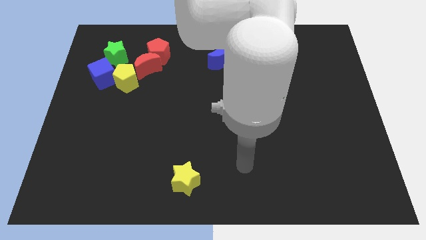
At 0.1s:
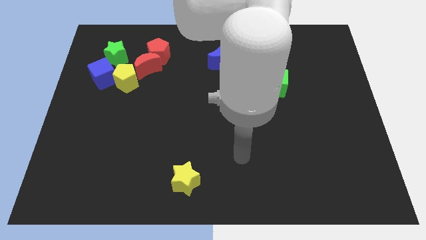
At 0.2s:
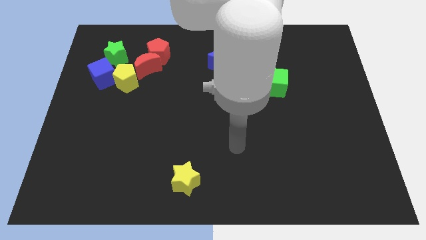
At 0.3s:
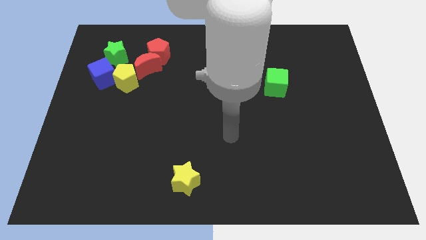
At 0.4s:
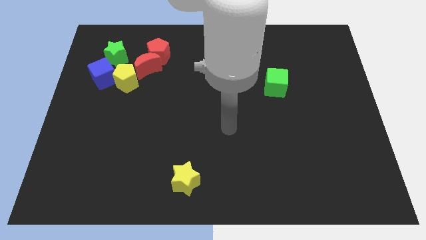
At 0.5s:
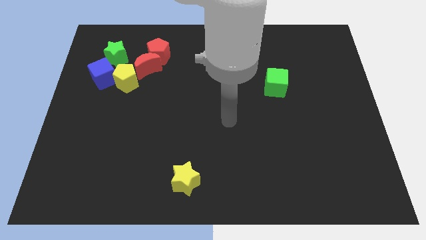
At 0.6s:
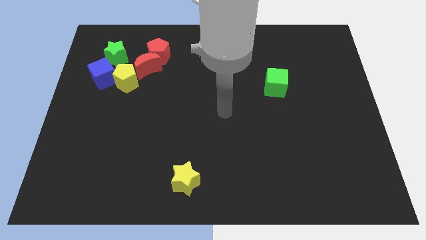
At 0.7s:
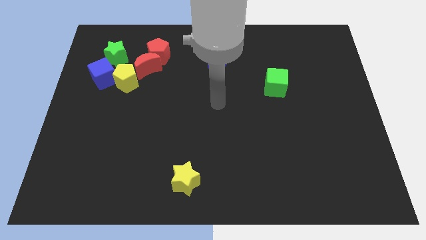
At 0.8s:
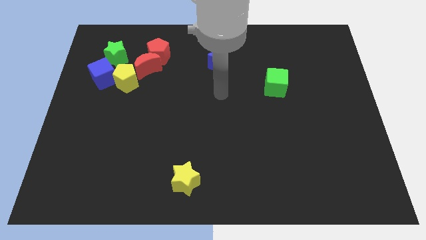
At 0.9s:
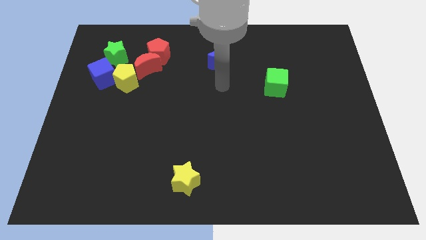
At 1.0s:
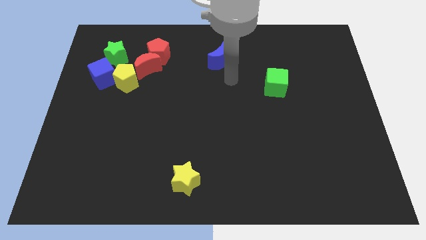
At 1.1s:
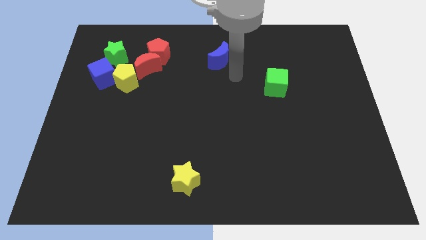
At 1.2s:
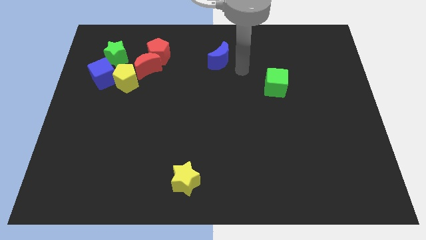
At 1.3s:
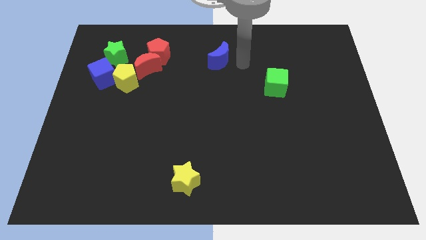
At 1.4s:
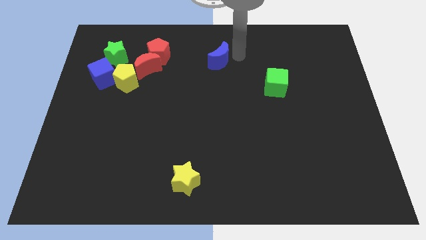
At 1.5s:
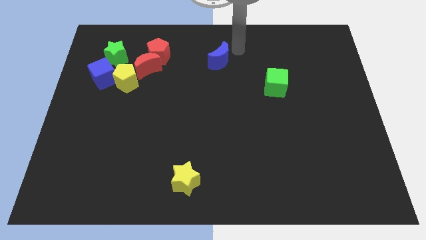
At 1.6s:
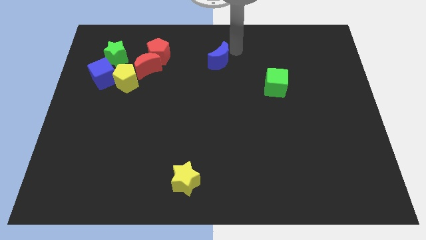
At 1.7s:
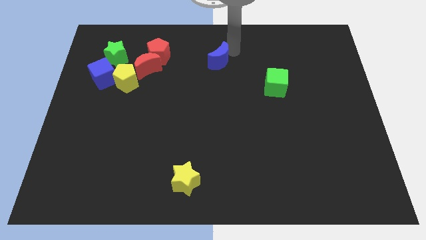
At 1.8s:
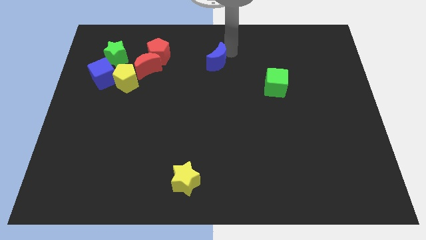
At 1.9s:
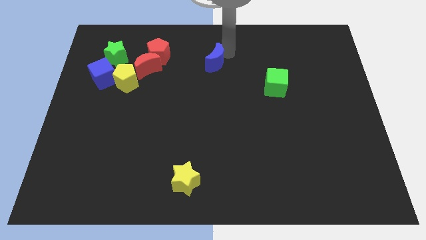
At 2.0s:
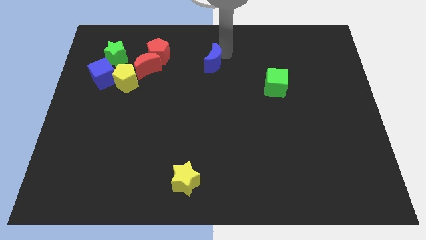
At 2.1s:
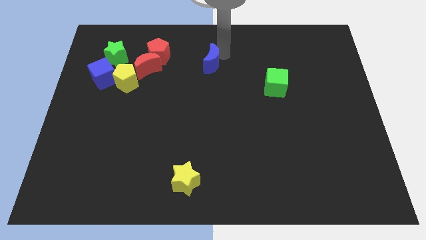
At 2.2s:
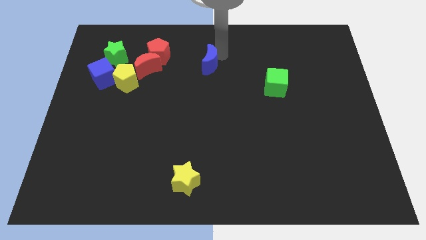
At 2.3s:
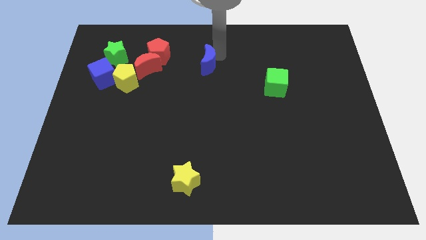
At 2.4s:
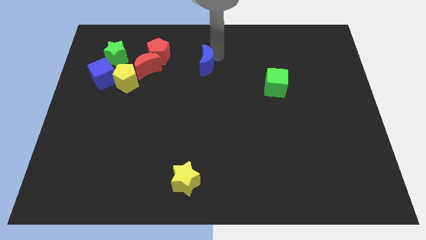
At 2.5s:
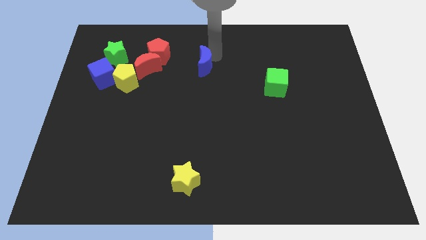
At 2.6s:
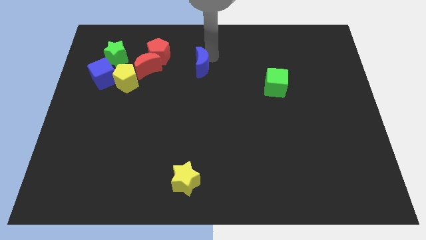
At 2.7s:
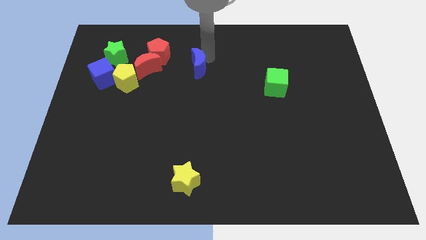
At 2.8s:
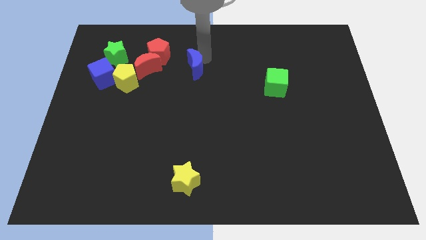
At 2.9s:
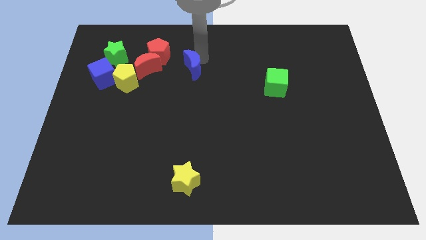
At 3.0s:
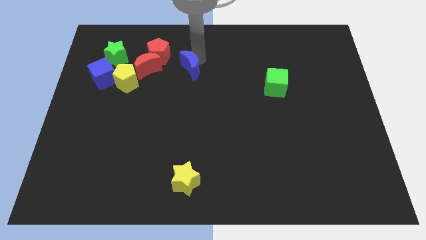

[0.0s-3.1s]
push the blue moon down and then left slightly

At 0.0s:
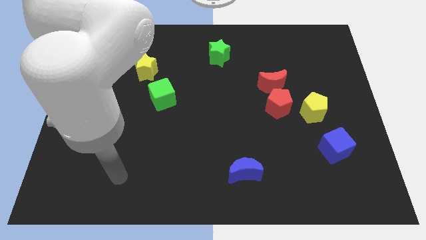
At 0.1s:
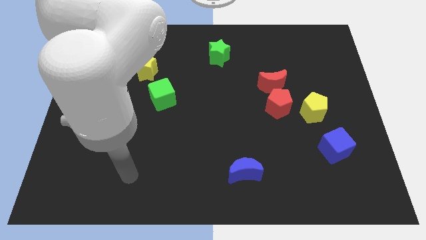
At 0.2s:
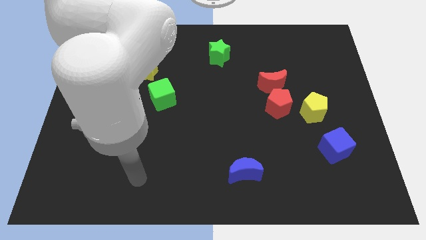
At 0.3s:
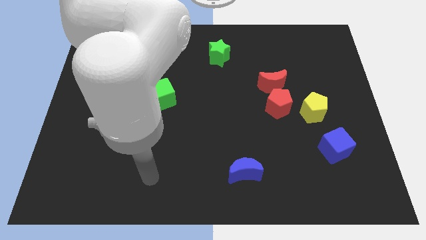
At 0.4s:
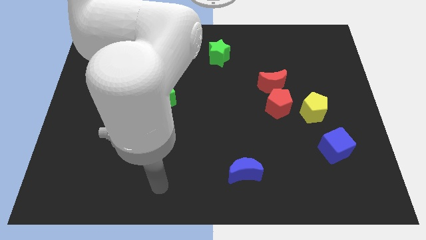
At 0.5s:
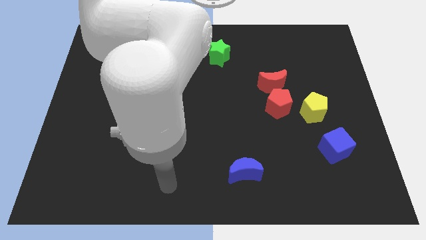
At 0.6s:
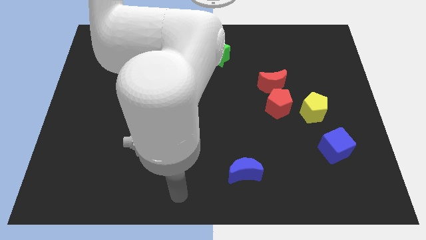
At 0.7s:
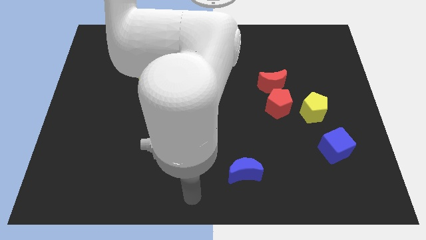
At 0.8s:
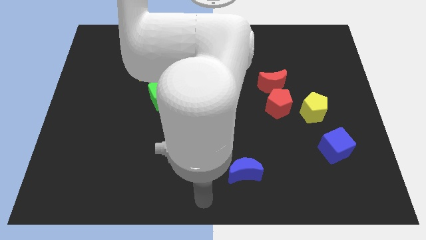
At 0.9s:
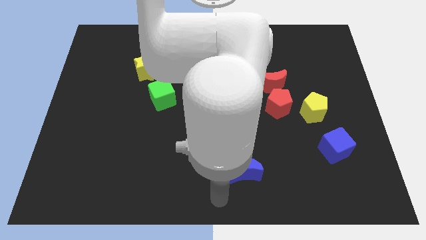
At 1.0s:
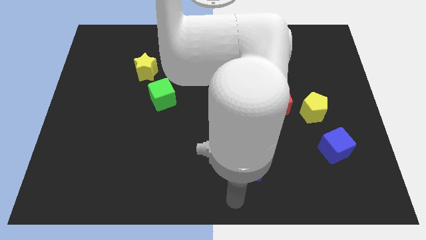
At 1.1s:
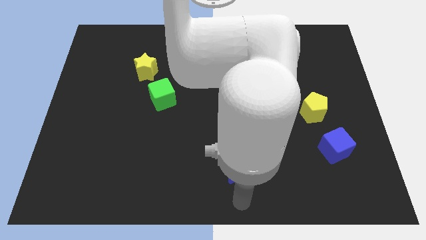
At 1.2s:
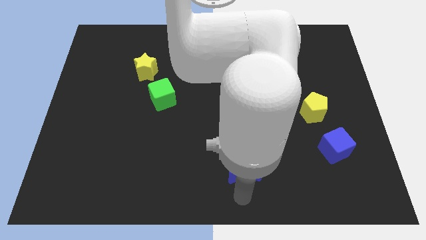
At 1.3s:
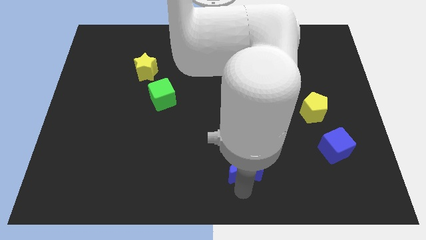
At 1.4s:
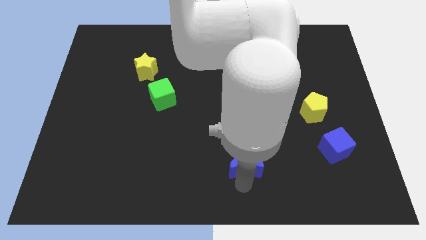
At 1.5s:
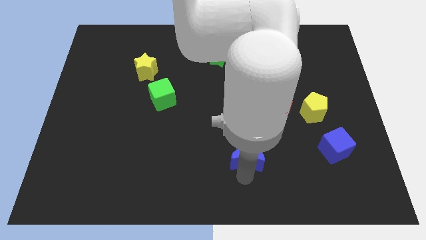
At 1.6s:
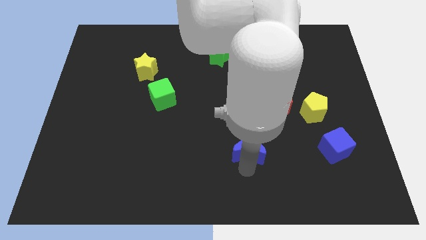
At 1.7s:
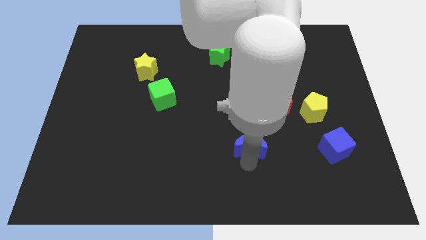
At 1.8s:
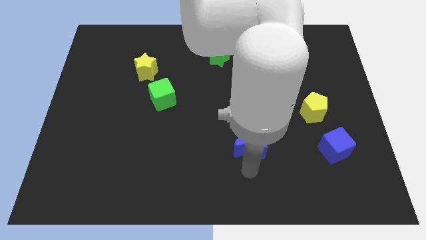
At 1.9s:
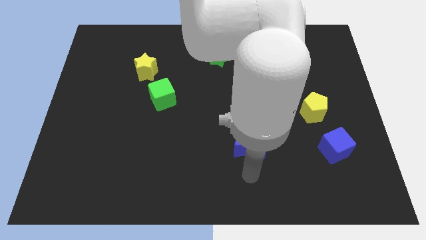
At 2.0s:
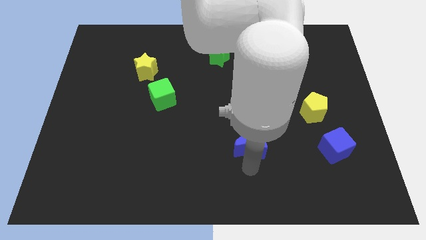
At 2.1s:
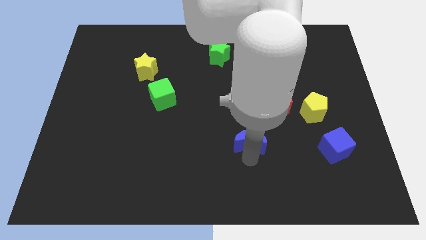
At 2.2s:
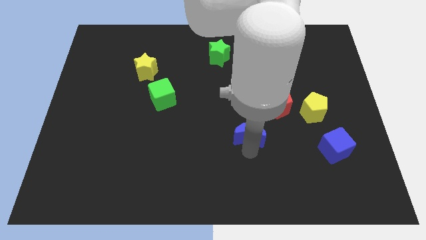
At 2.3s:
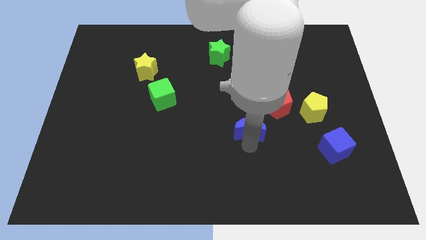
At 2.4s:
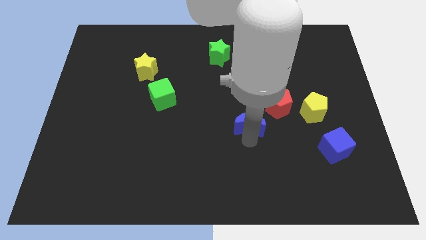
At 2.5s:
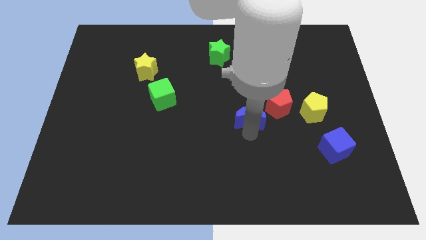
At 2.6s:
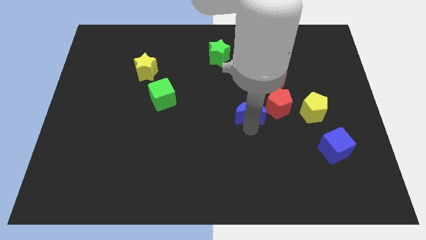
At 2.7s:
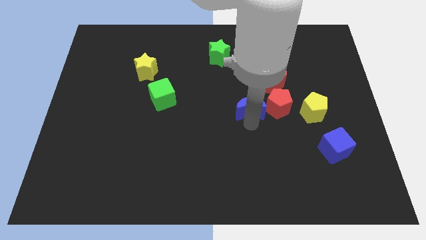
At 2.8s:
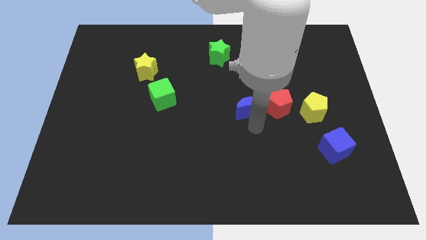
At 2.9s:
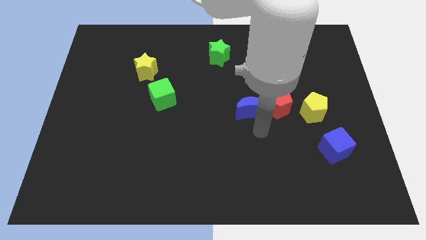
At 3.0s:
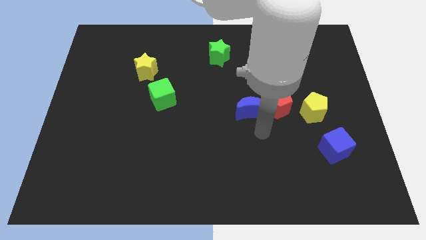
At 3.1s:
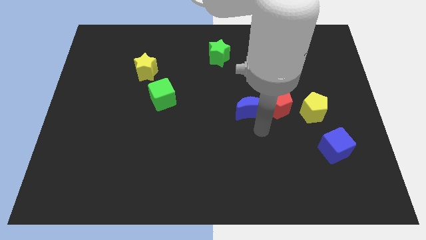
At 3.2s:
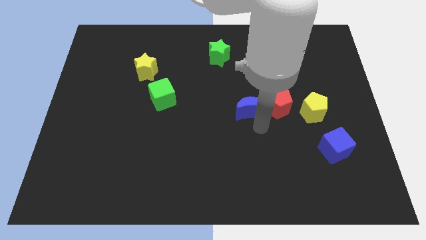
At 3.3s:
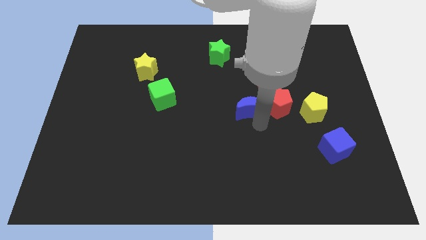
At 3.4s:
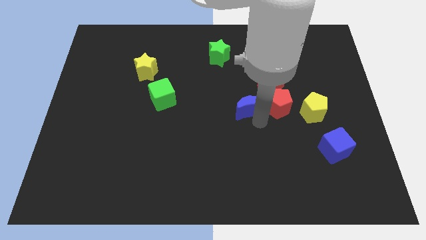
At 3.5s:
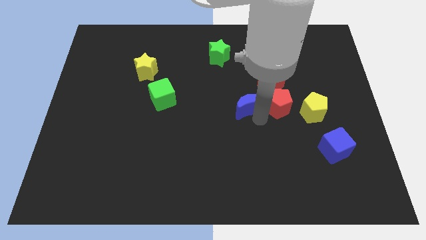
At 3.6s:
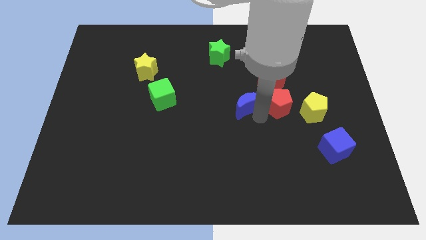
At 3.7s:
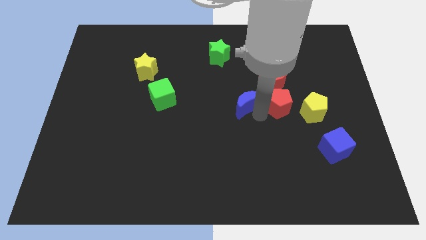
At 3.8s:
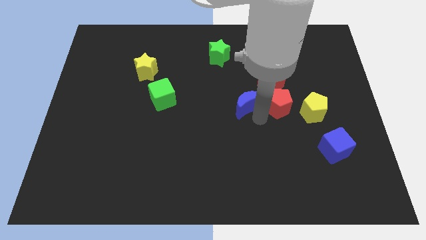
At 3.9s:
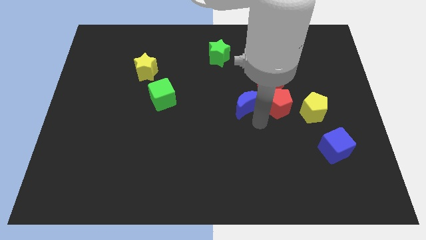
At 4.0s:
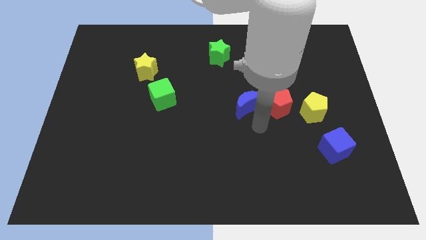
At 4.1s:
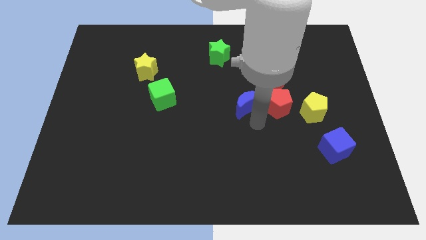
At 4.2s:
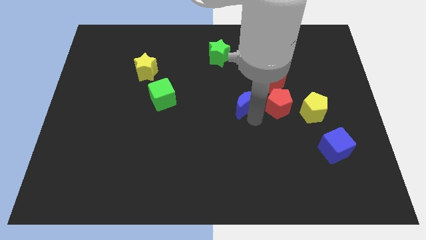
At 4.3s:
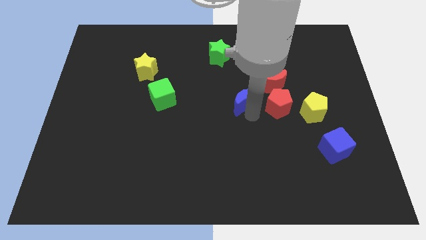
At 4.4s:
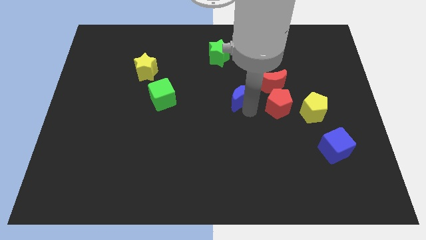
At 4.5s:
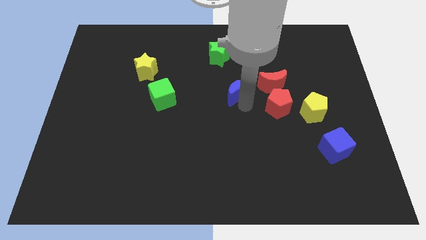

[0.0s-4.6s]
push the blue moon up
